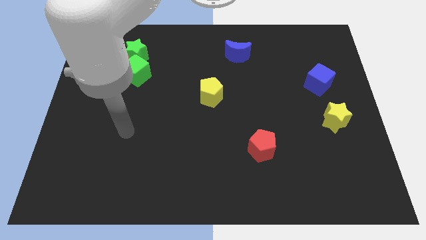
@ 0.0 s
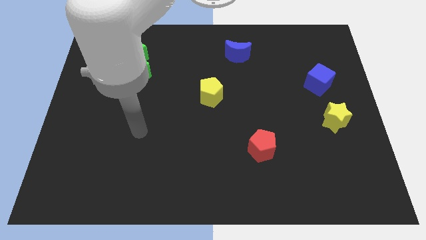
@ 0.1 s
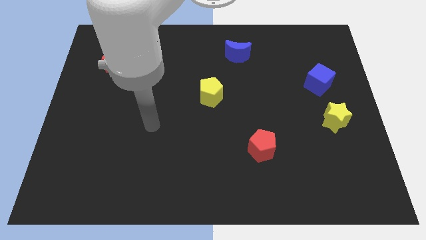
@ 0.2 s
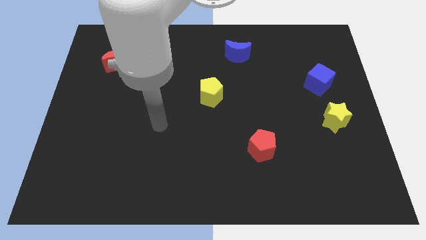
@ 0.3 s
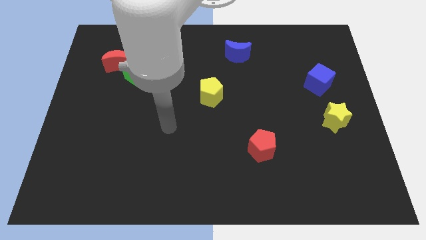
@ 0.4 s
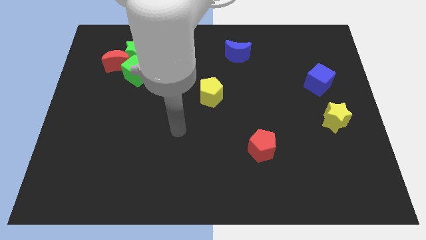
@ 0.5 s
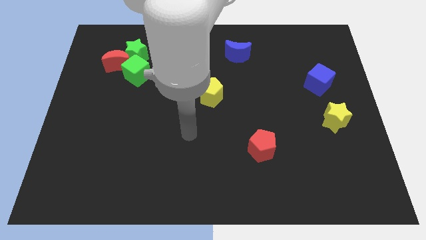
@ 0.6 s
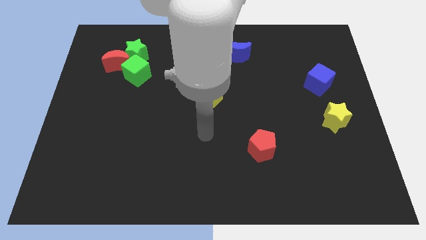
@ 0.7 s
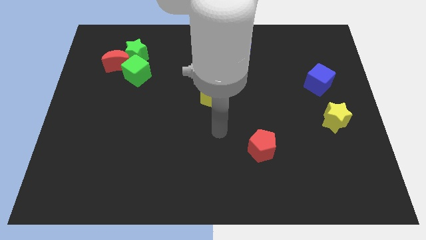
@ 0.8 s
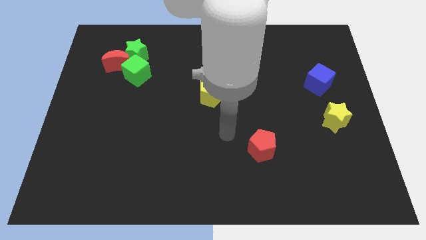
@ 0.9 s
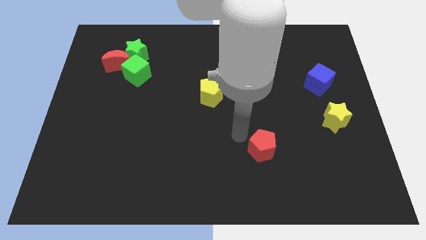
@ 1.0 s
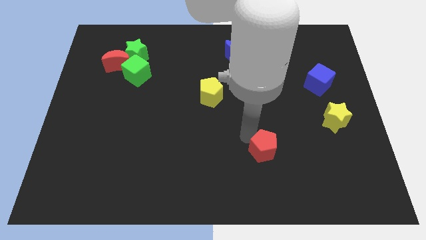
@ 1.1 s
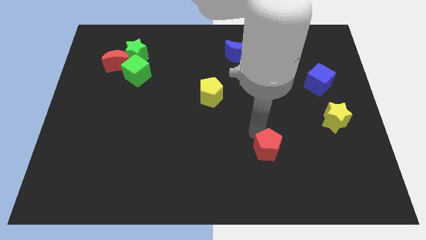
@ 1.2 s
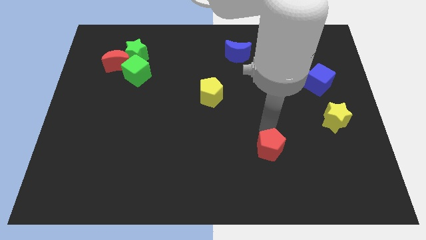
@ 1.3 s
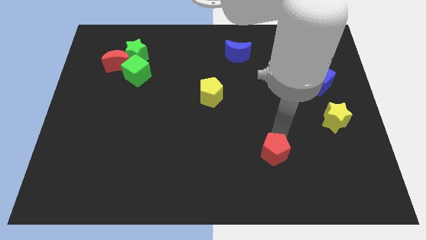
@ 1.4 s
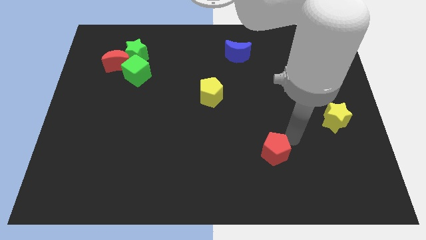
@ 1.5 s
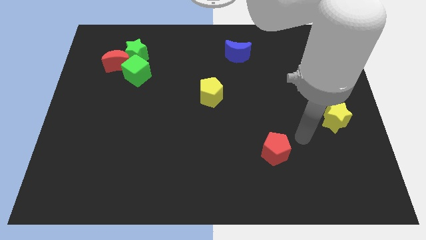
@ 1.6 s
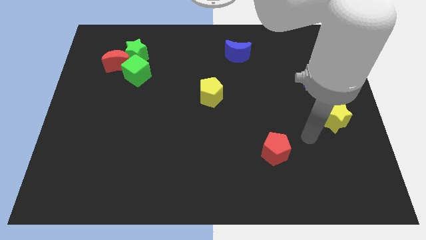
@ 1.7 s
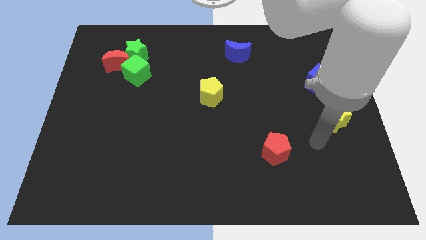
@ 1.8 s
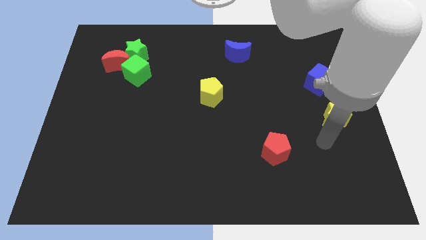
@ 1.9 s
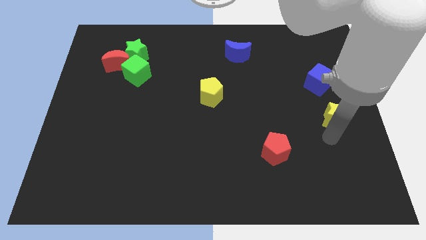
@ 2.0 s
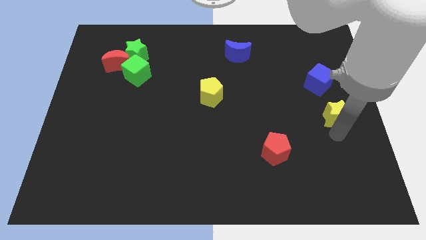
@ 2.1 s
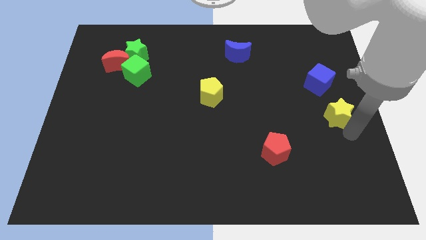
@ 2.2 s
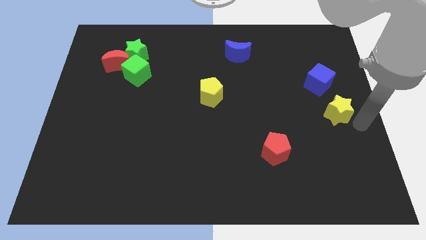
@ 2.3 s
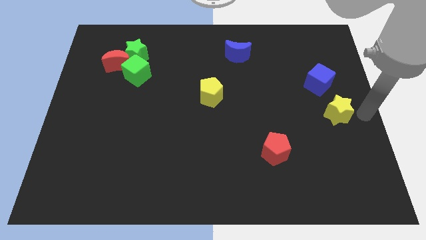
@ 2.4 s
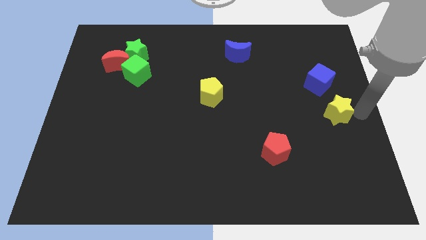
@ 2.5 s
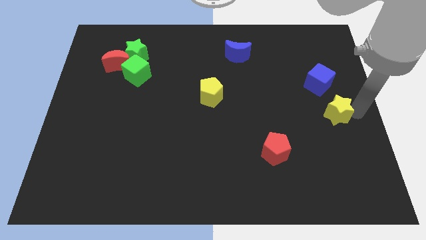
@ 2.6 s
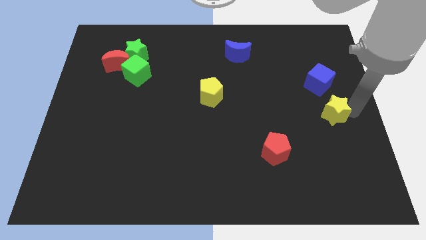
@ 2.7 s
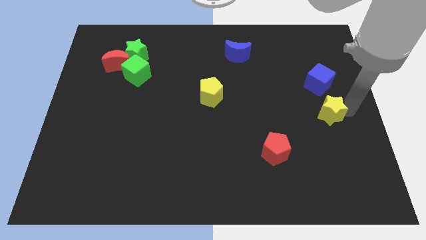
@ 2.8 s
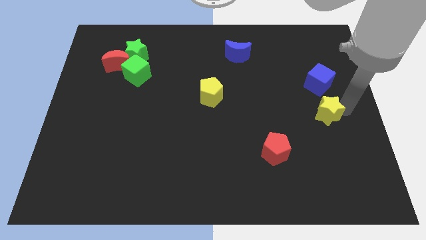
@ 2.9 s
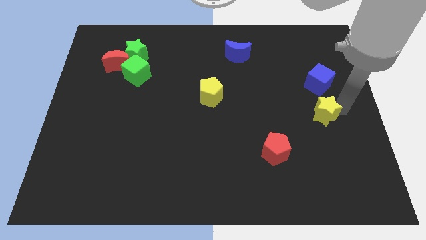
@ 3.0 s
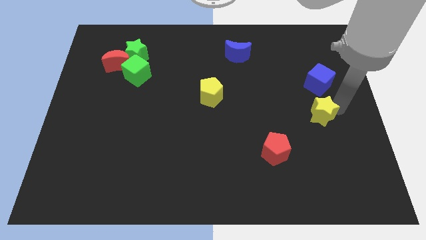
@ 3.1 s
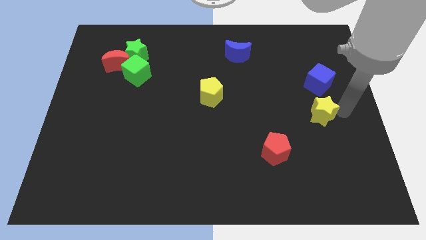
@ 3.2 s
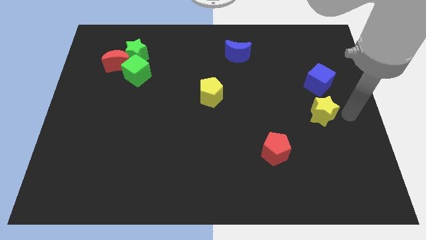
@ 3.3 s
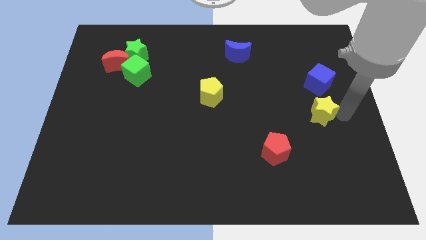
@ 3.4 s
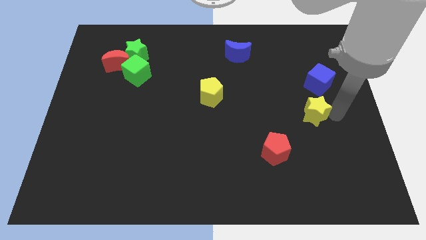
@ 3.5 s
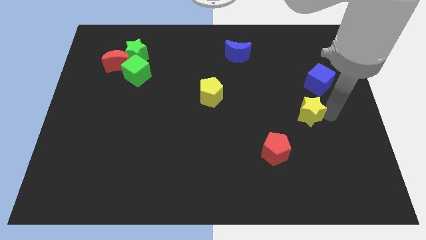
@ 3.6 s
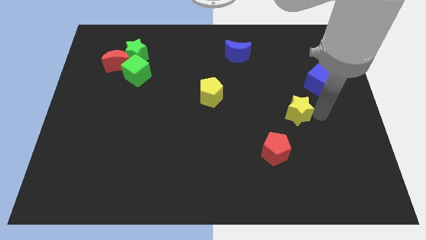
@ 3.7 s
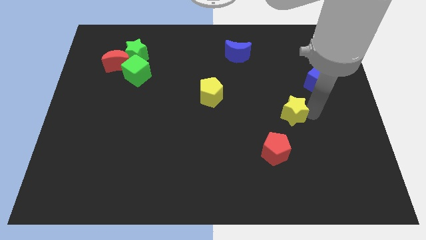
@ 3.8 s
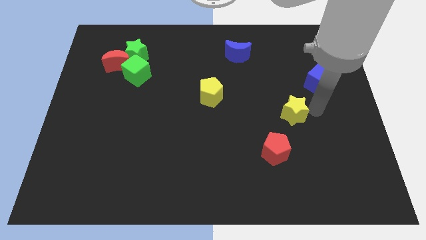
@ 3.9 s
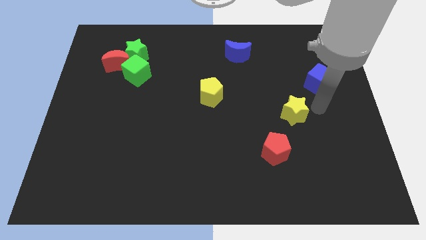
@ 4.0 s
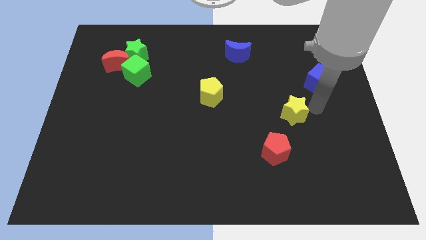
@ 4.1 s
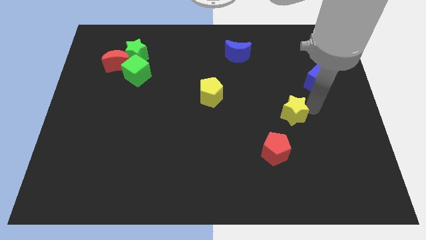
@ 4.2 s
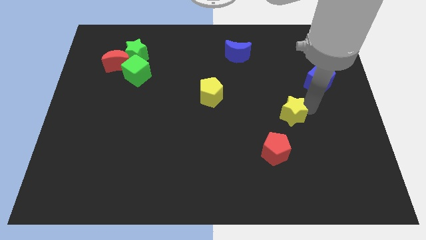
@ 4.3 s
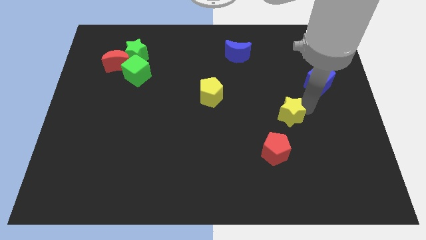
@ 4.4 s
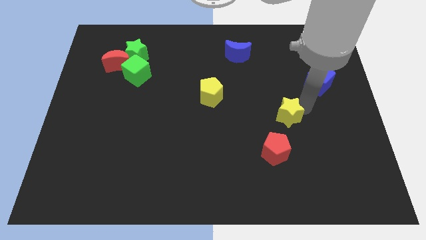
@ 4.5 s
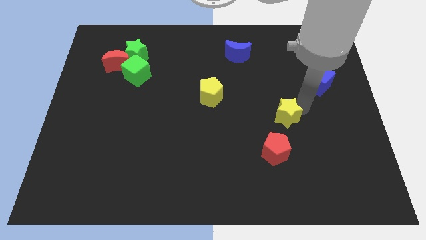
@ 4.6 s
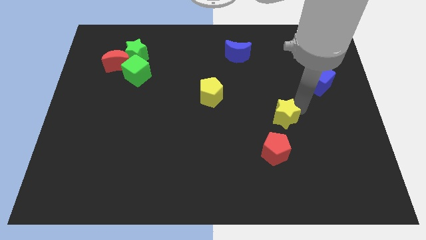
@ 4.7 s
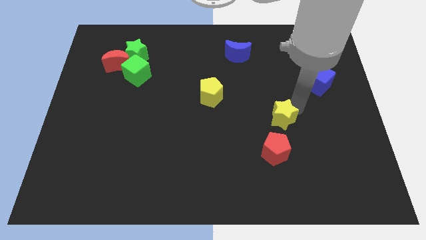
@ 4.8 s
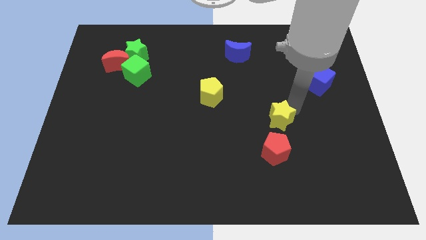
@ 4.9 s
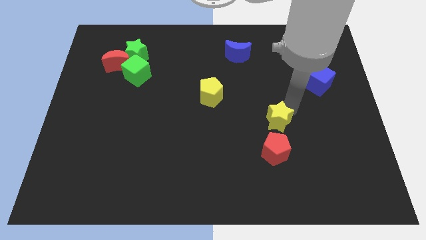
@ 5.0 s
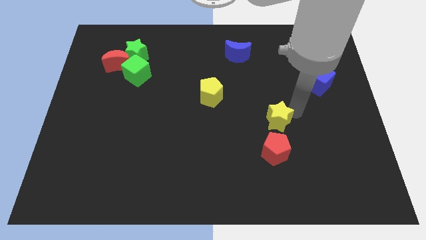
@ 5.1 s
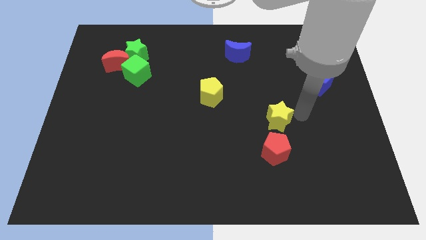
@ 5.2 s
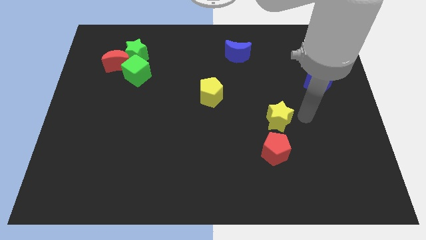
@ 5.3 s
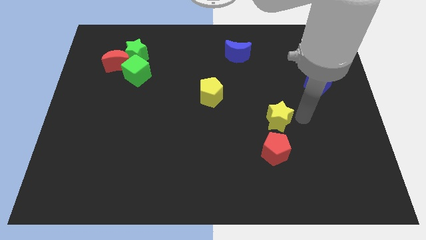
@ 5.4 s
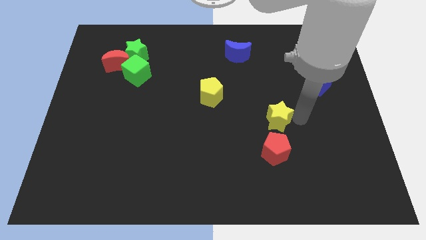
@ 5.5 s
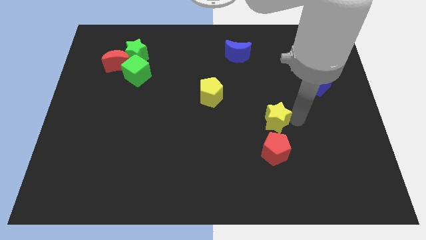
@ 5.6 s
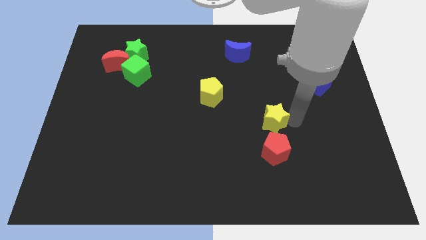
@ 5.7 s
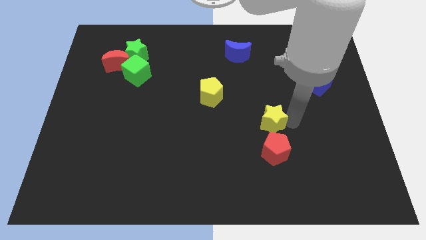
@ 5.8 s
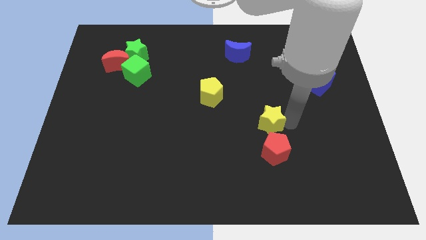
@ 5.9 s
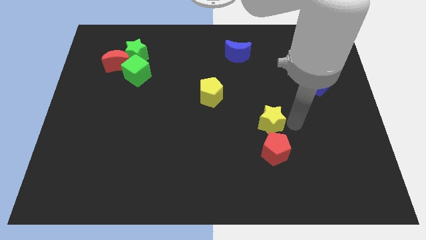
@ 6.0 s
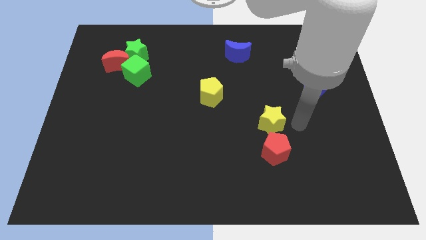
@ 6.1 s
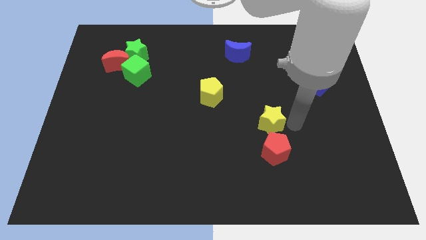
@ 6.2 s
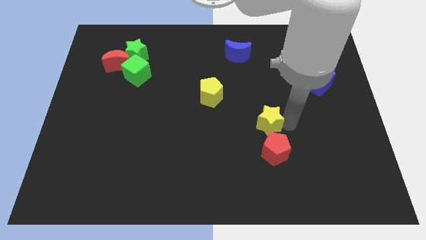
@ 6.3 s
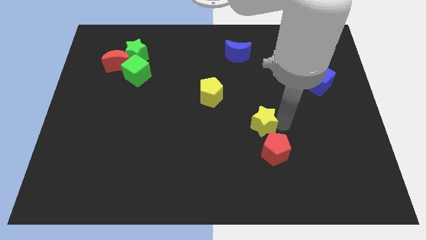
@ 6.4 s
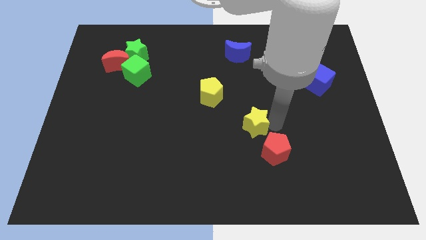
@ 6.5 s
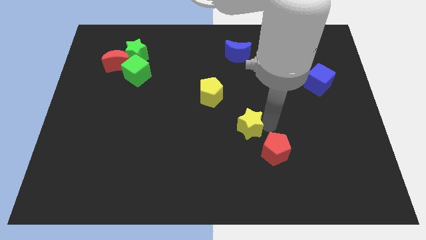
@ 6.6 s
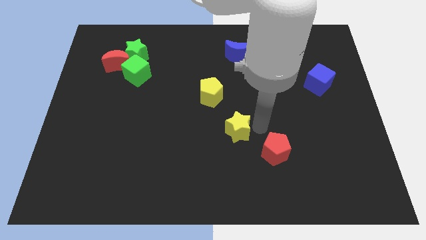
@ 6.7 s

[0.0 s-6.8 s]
slide the yellow star left

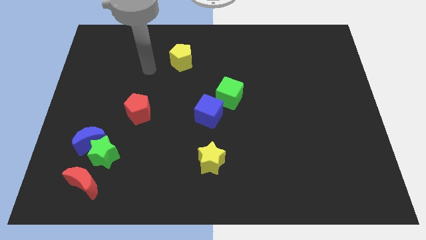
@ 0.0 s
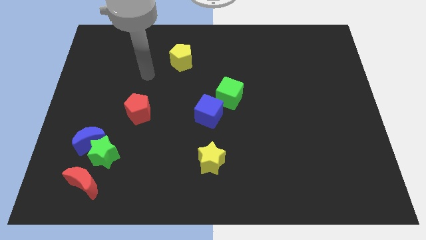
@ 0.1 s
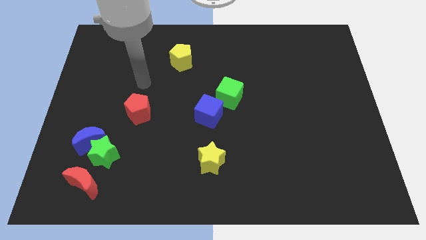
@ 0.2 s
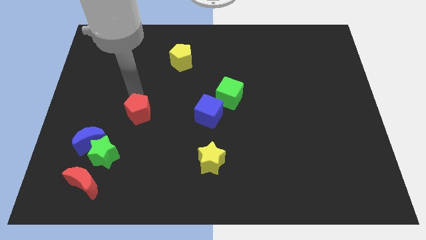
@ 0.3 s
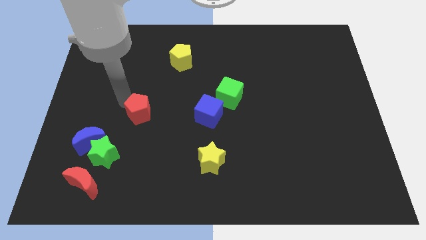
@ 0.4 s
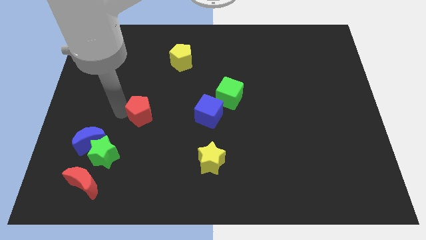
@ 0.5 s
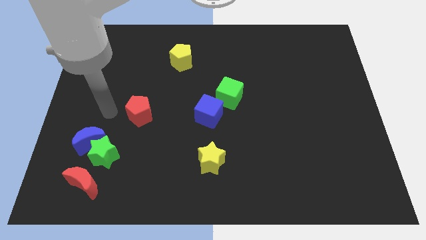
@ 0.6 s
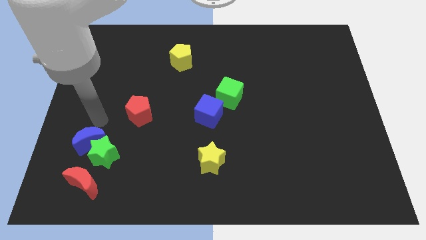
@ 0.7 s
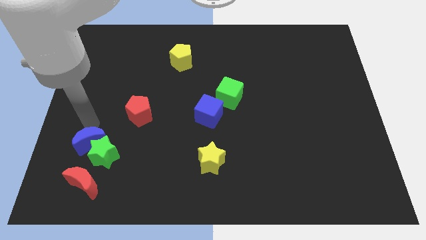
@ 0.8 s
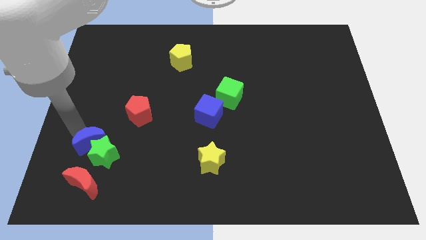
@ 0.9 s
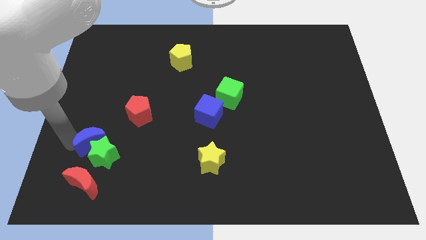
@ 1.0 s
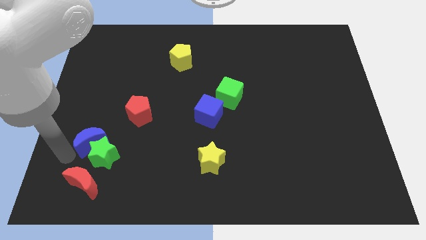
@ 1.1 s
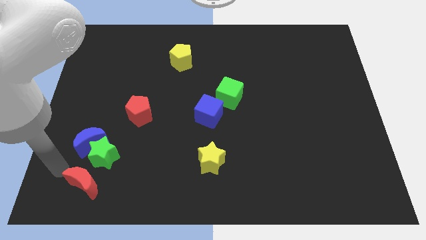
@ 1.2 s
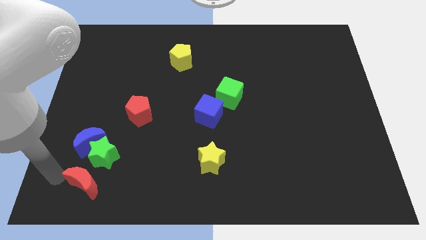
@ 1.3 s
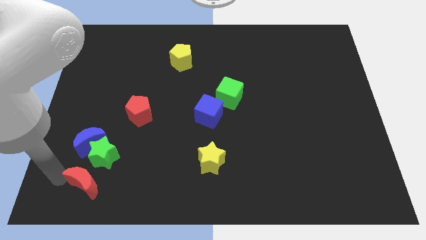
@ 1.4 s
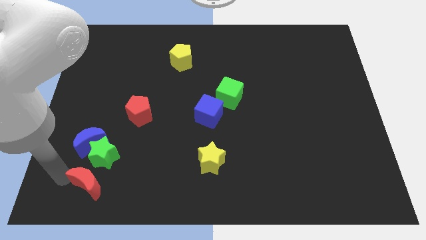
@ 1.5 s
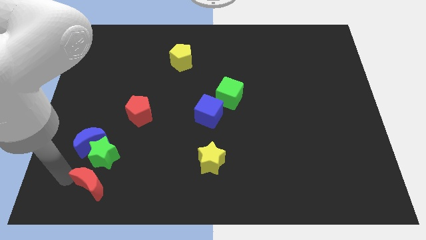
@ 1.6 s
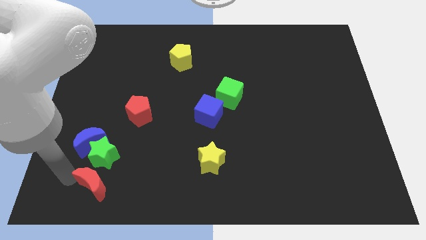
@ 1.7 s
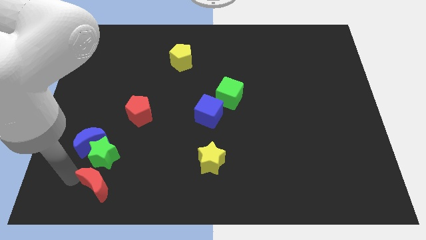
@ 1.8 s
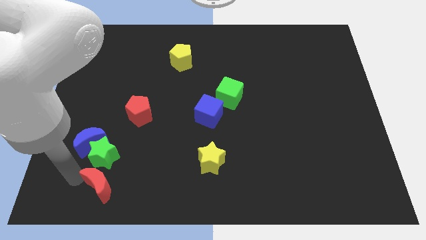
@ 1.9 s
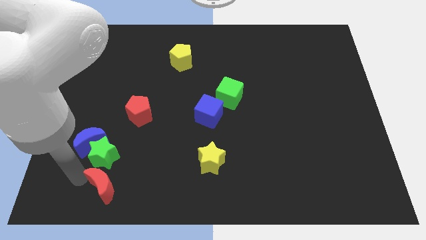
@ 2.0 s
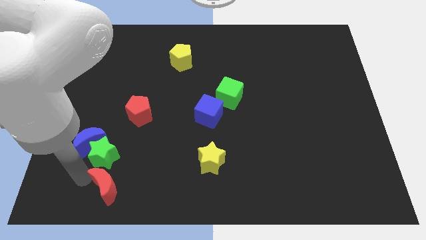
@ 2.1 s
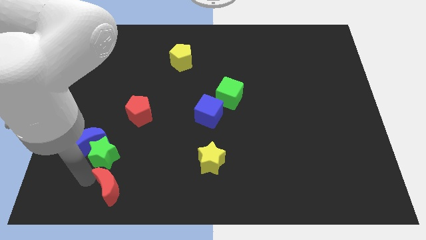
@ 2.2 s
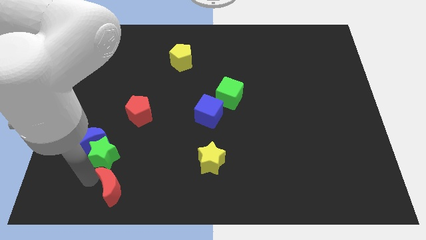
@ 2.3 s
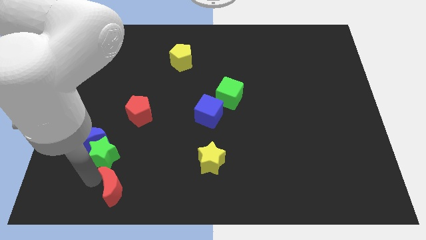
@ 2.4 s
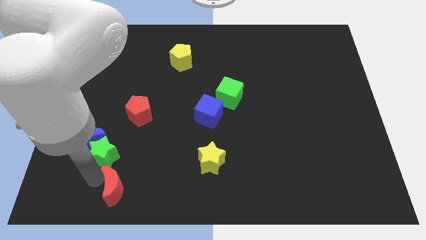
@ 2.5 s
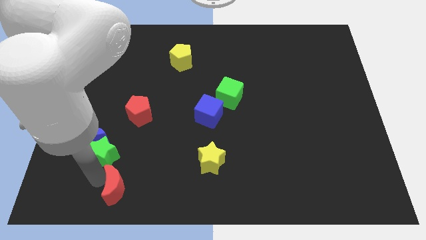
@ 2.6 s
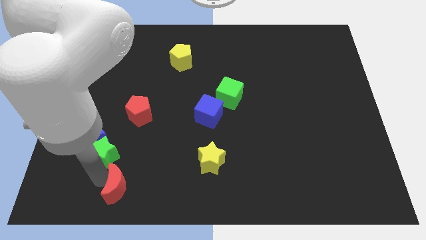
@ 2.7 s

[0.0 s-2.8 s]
slightly slide the red moon right
